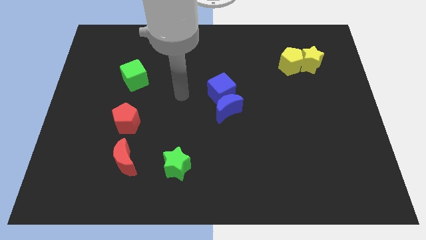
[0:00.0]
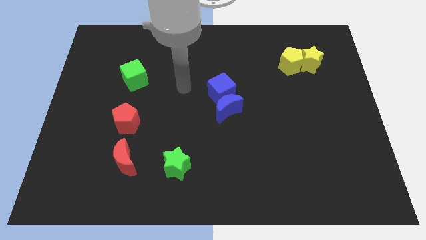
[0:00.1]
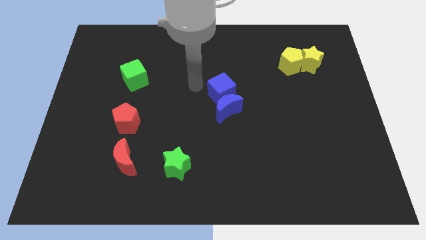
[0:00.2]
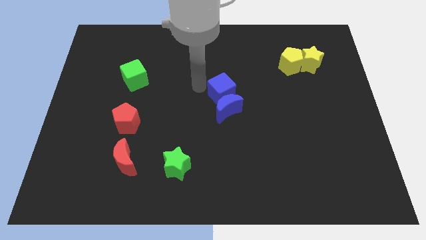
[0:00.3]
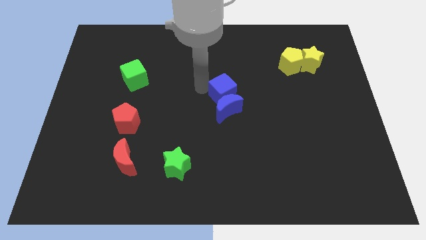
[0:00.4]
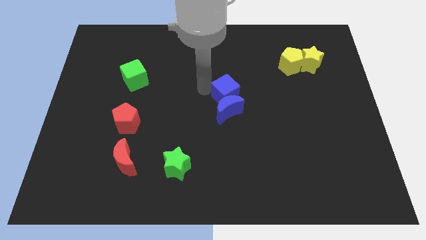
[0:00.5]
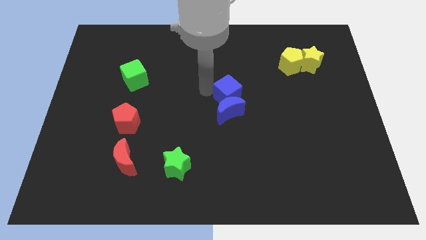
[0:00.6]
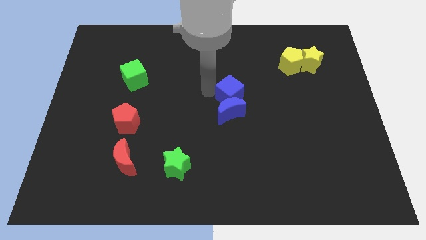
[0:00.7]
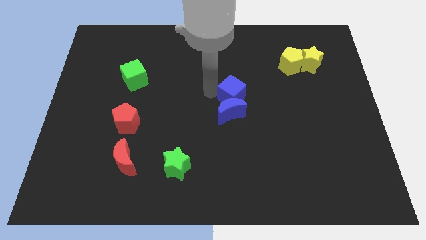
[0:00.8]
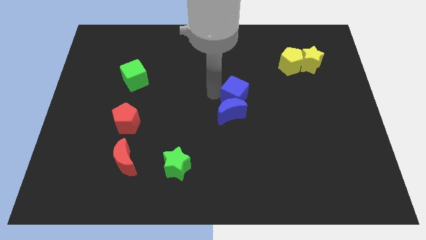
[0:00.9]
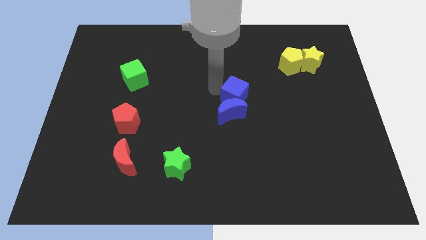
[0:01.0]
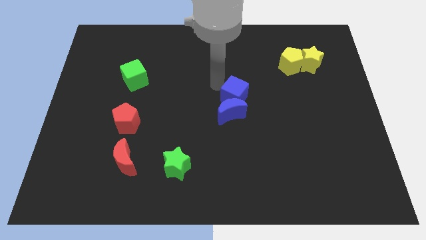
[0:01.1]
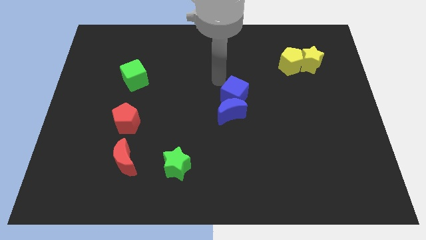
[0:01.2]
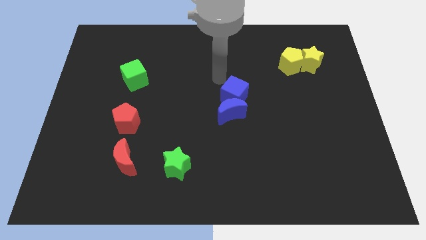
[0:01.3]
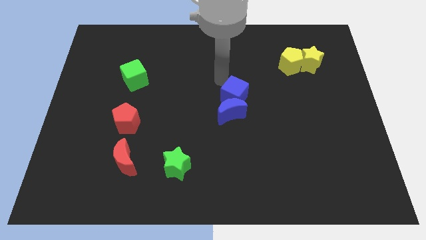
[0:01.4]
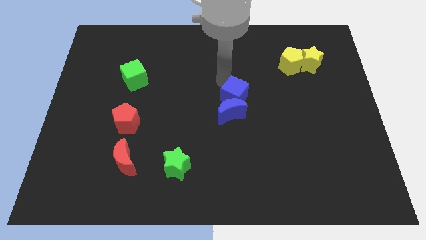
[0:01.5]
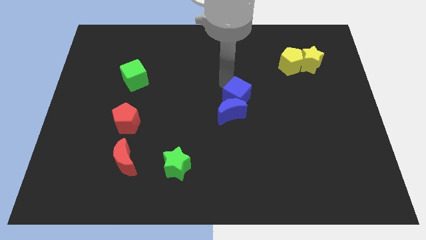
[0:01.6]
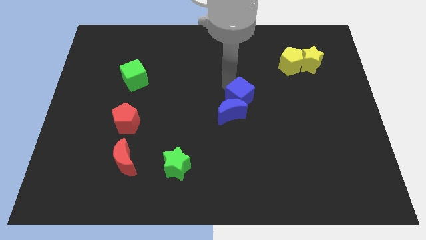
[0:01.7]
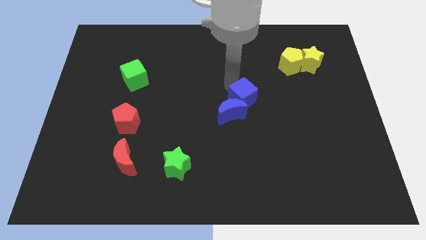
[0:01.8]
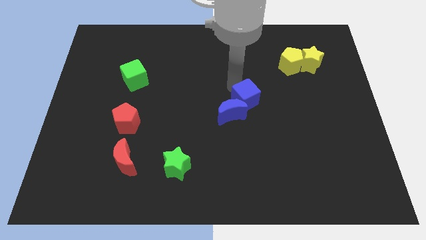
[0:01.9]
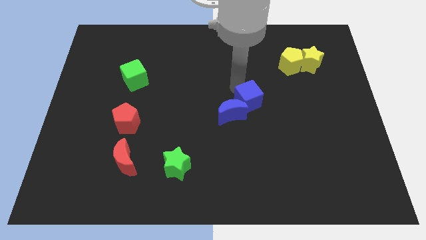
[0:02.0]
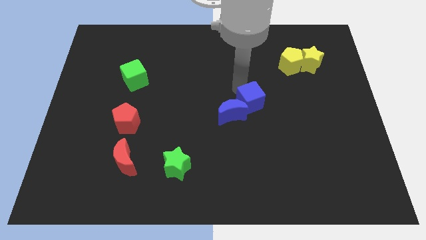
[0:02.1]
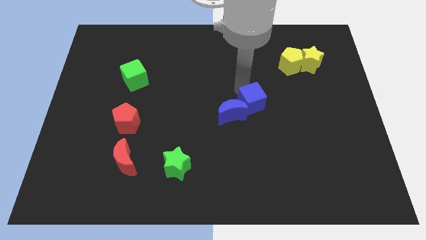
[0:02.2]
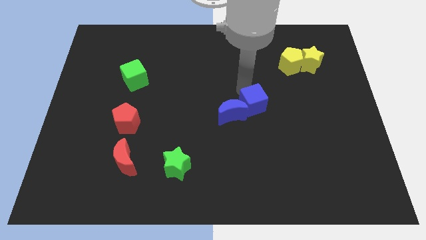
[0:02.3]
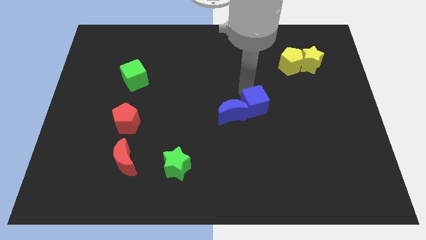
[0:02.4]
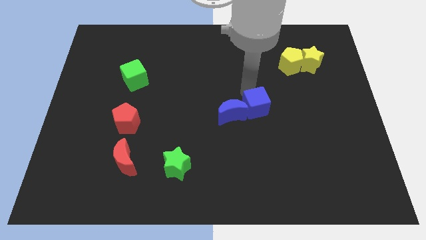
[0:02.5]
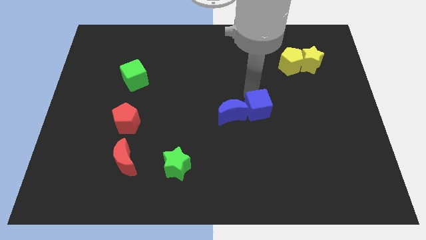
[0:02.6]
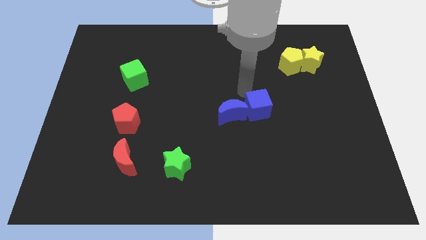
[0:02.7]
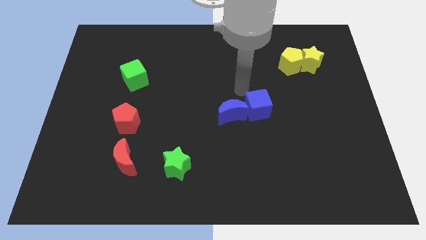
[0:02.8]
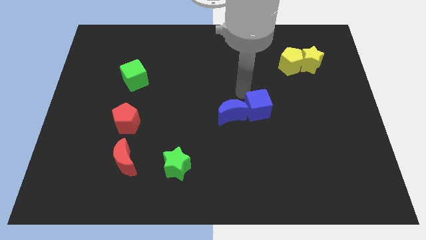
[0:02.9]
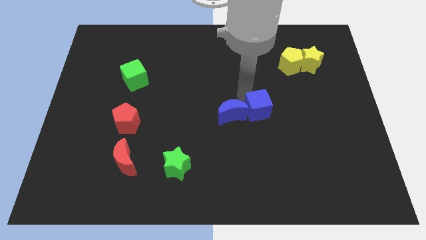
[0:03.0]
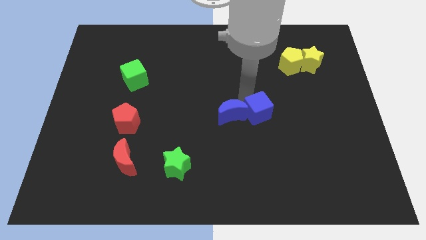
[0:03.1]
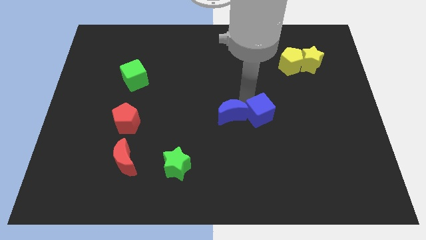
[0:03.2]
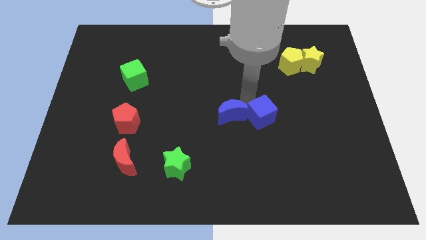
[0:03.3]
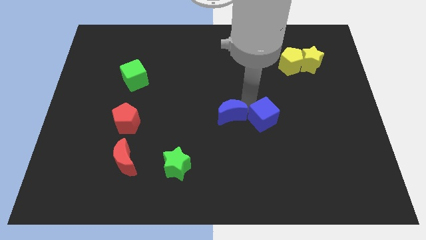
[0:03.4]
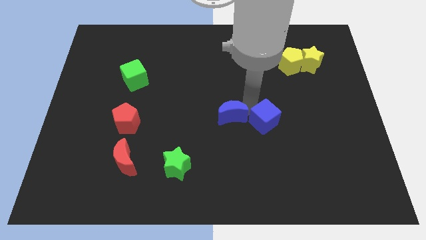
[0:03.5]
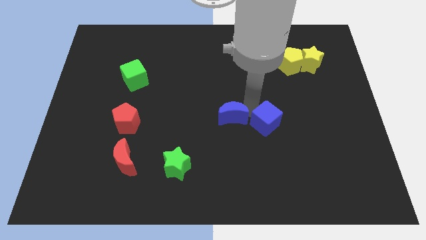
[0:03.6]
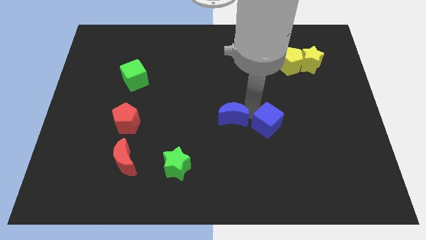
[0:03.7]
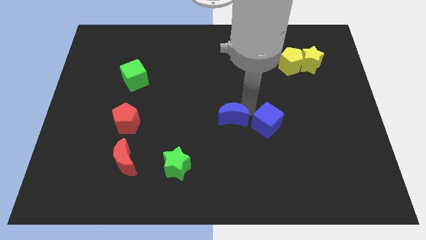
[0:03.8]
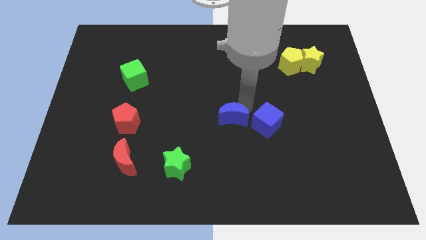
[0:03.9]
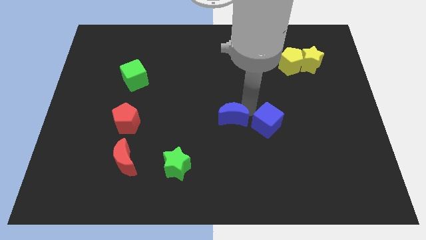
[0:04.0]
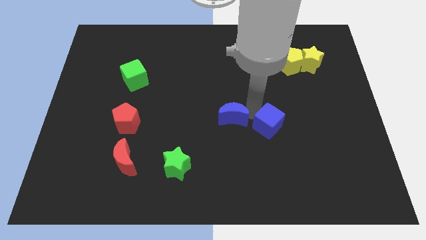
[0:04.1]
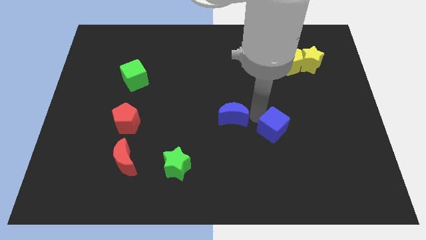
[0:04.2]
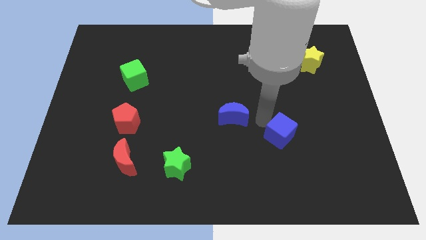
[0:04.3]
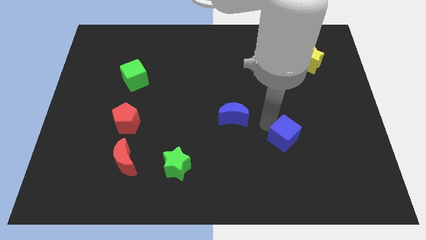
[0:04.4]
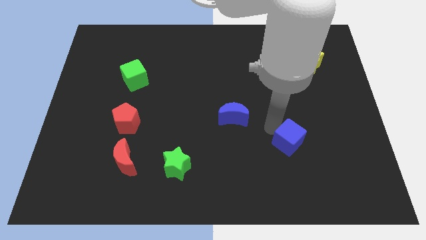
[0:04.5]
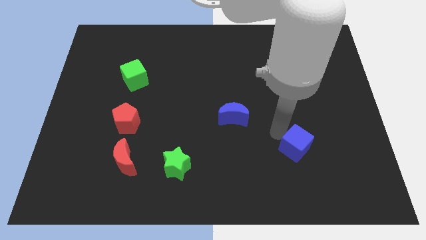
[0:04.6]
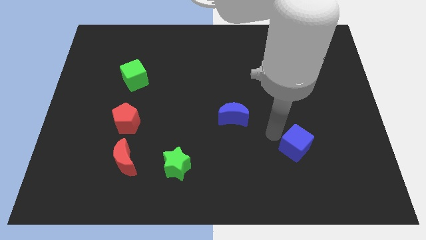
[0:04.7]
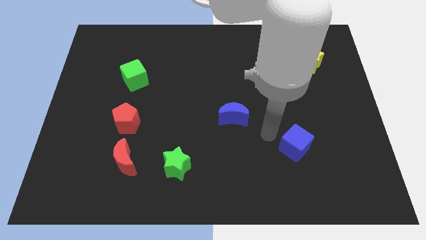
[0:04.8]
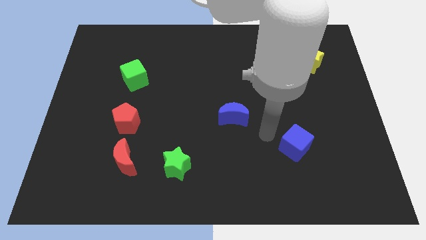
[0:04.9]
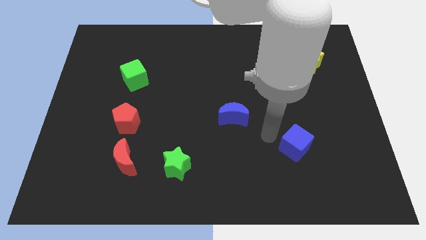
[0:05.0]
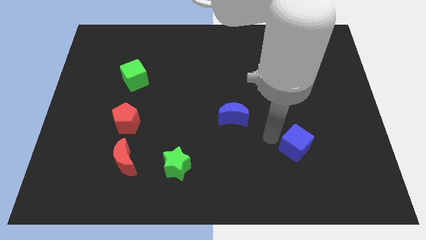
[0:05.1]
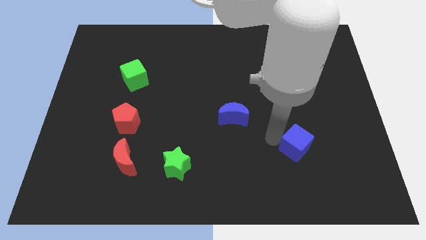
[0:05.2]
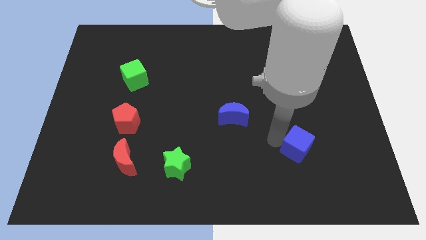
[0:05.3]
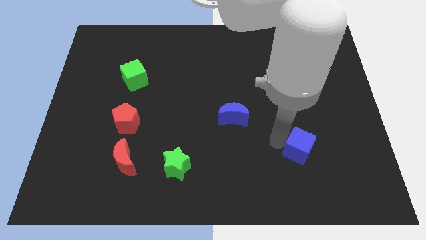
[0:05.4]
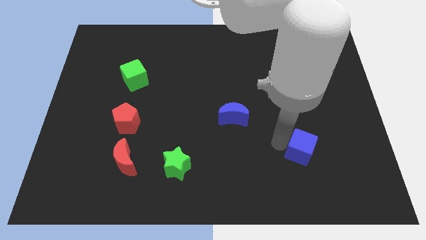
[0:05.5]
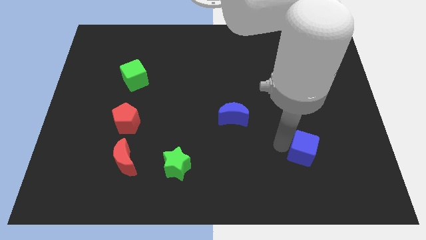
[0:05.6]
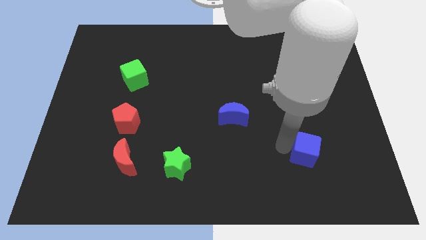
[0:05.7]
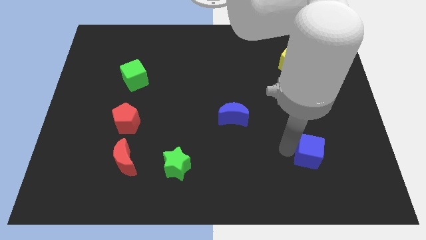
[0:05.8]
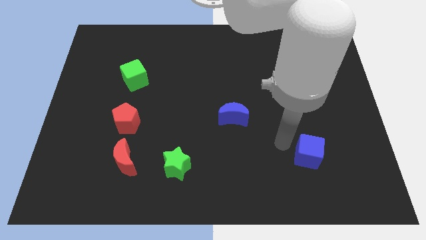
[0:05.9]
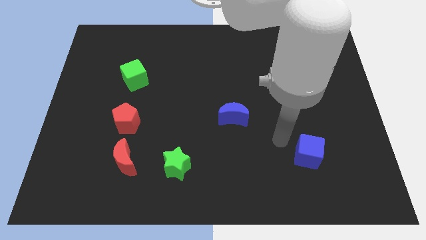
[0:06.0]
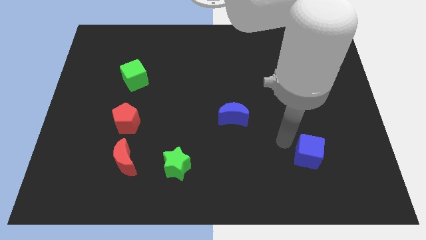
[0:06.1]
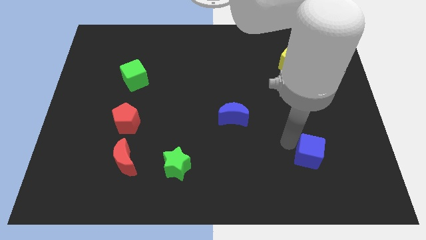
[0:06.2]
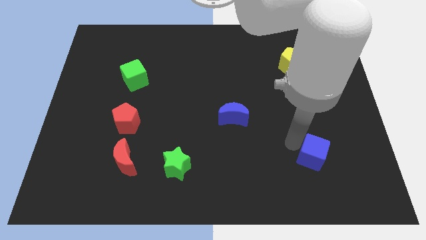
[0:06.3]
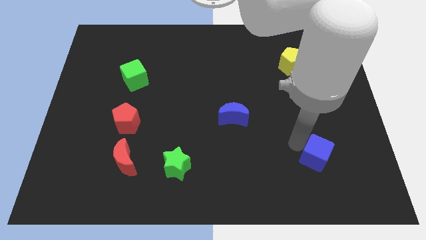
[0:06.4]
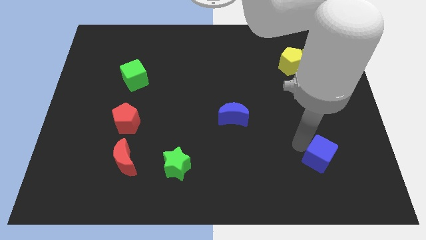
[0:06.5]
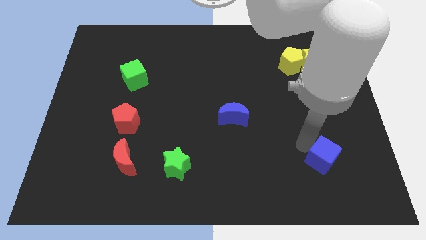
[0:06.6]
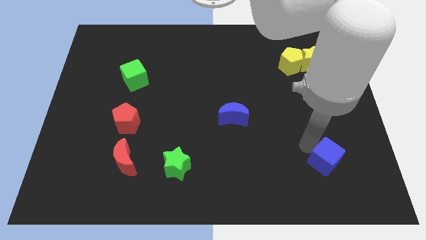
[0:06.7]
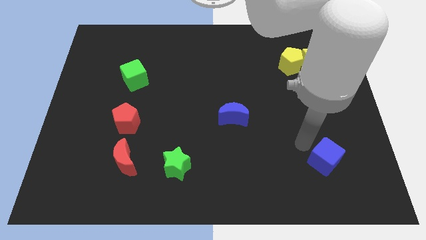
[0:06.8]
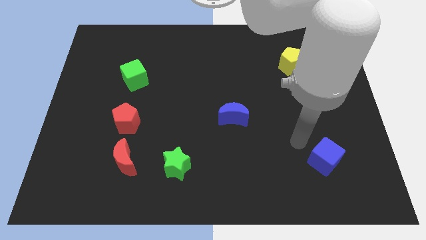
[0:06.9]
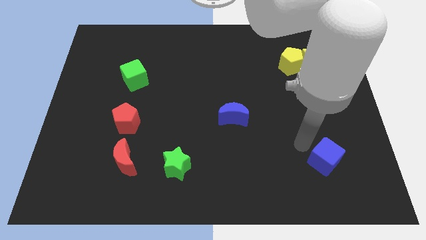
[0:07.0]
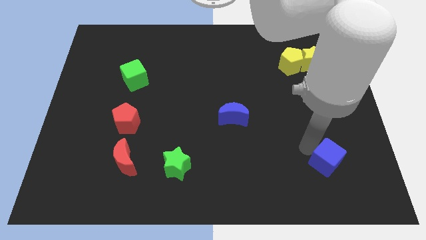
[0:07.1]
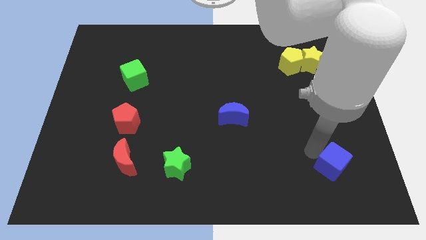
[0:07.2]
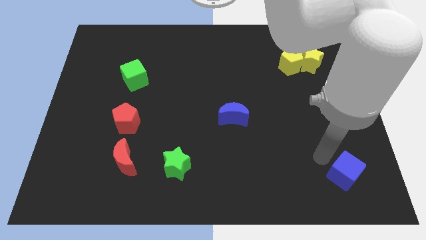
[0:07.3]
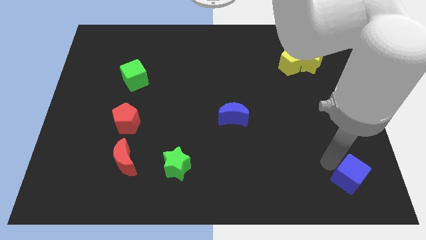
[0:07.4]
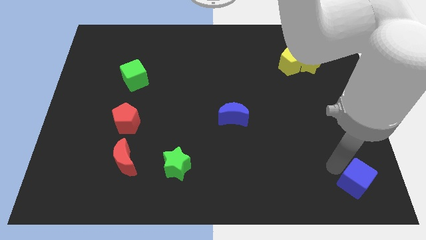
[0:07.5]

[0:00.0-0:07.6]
slide the blue cube to the lower right corner
